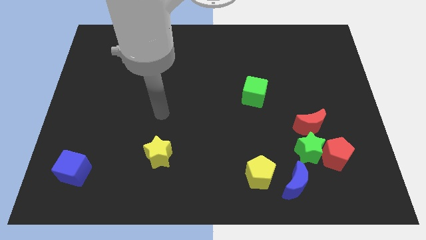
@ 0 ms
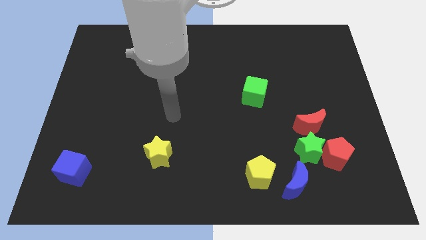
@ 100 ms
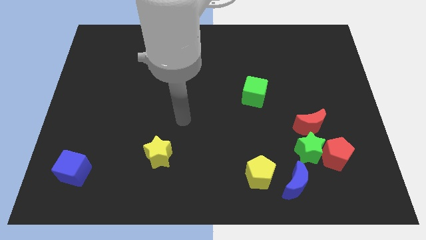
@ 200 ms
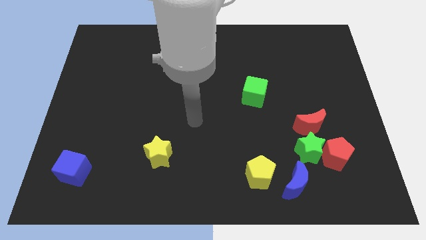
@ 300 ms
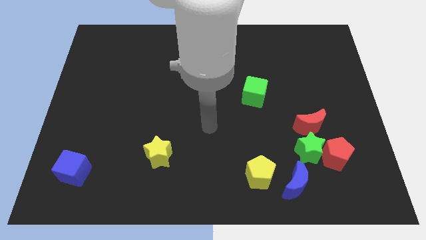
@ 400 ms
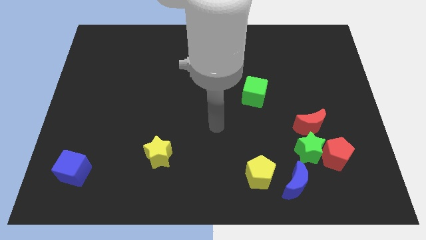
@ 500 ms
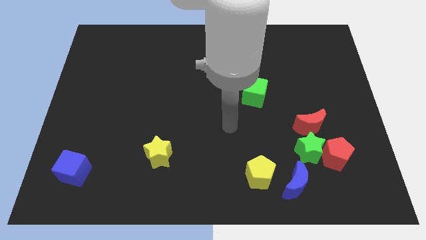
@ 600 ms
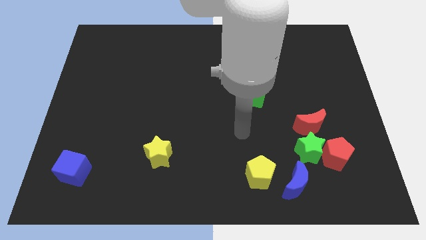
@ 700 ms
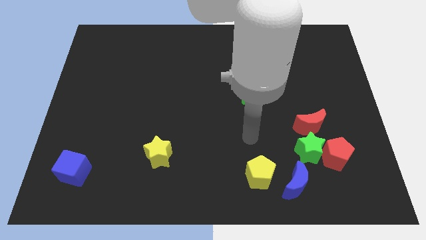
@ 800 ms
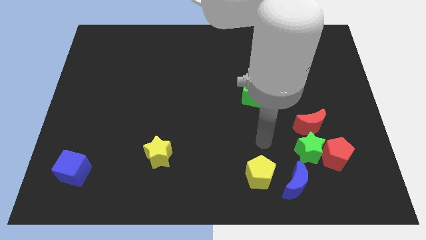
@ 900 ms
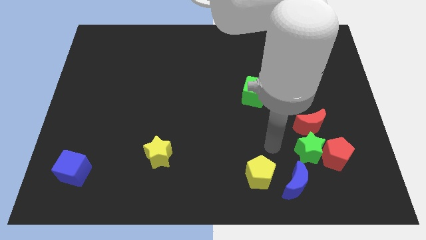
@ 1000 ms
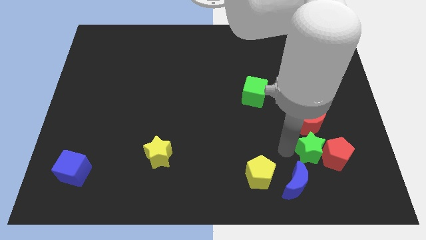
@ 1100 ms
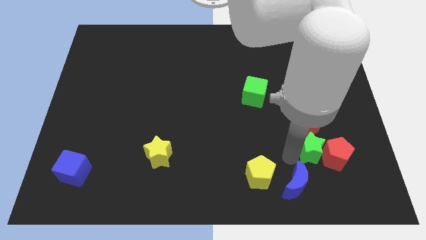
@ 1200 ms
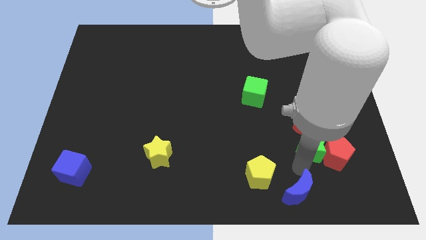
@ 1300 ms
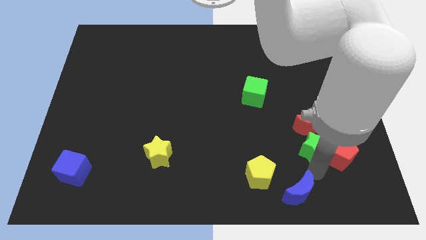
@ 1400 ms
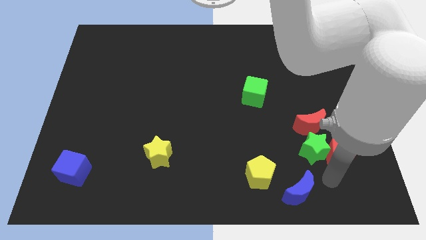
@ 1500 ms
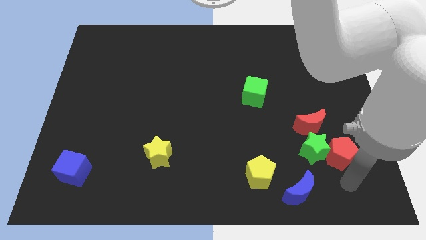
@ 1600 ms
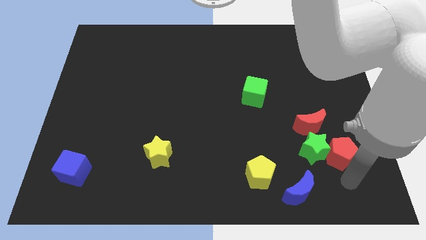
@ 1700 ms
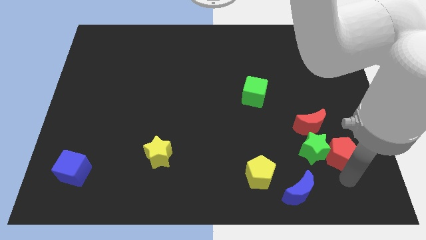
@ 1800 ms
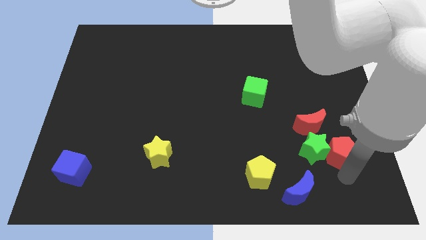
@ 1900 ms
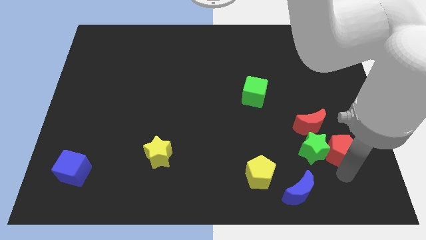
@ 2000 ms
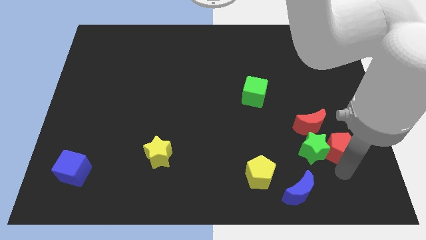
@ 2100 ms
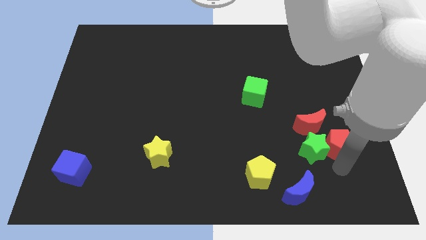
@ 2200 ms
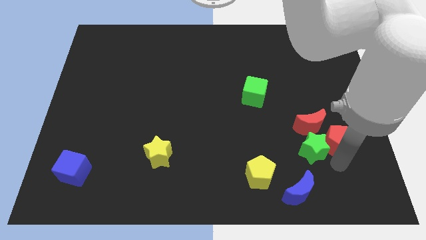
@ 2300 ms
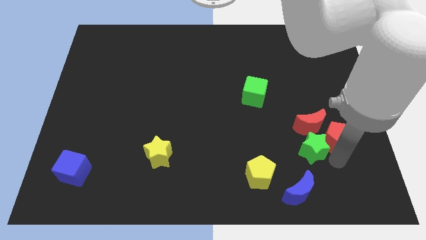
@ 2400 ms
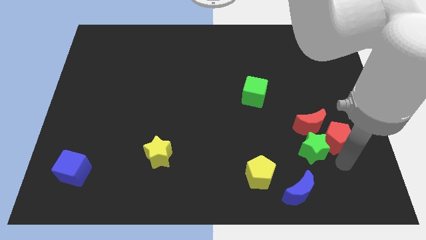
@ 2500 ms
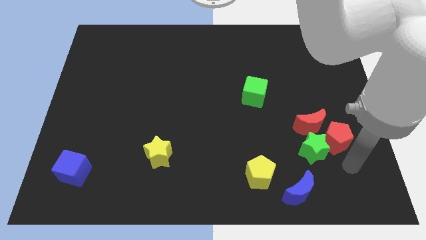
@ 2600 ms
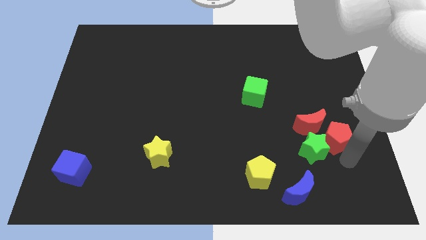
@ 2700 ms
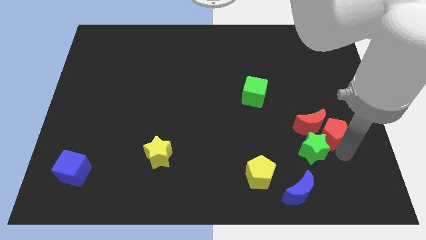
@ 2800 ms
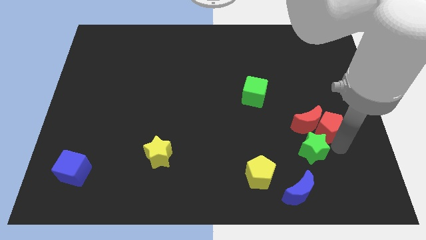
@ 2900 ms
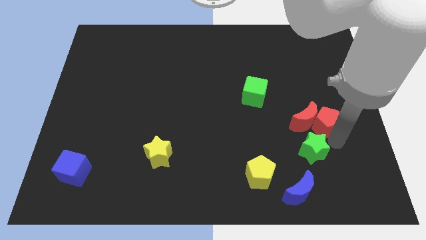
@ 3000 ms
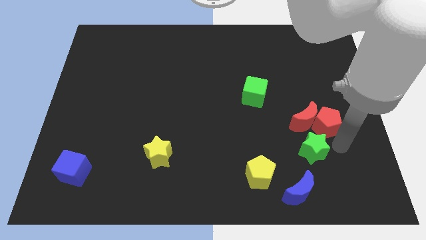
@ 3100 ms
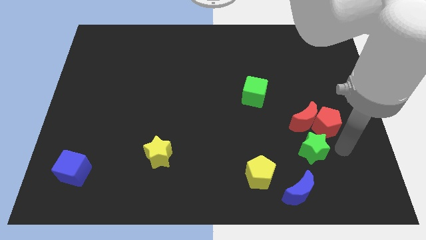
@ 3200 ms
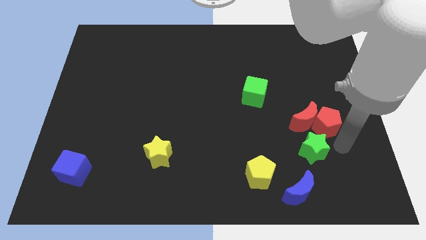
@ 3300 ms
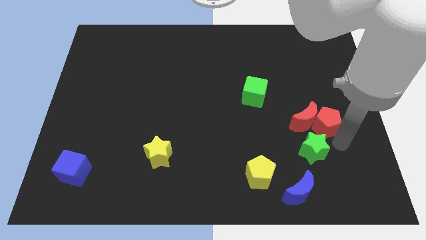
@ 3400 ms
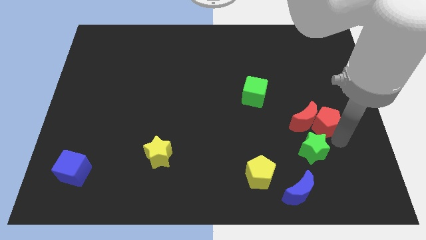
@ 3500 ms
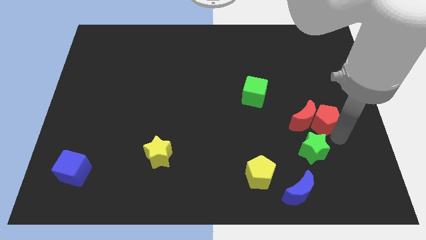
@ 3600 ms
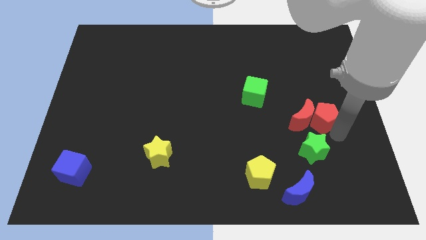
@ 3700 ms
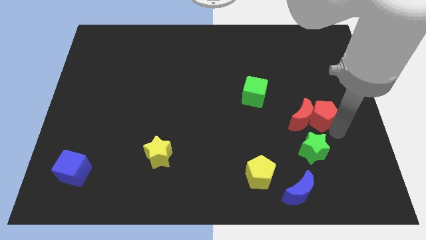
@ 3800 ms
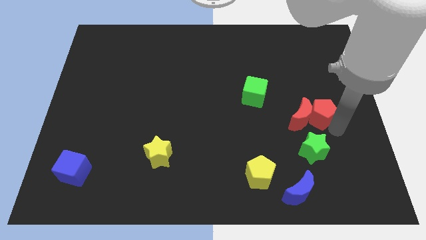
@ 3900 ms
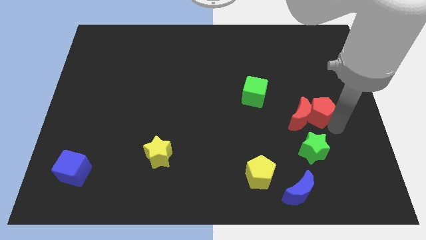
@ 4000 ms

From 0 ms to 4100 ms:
move the red pentagon slightly upwards and to the left diagonally

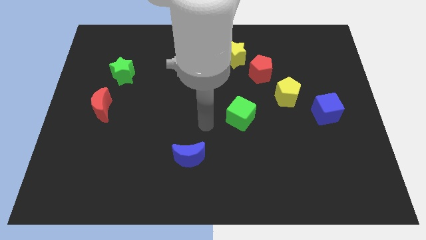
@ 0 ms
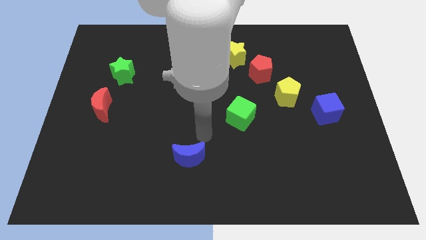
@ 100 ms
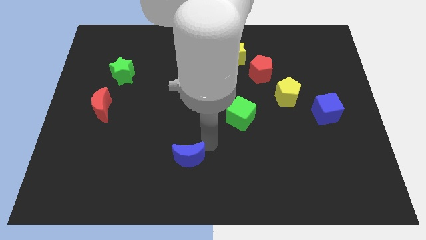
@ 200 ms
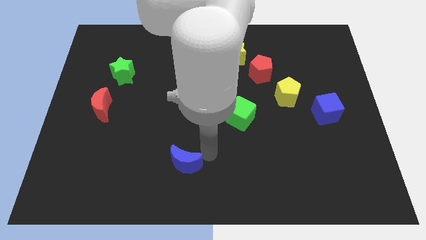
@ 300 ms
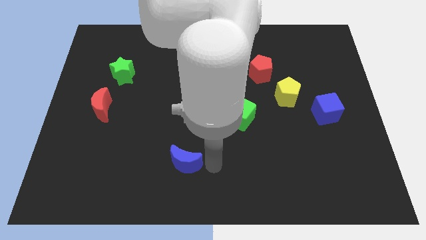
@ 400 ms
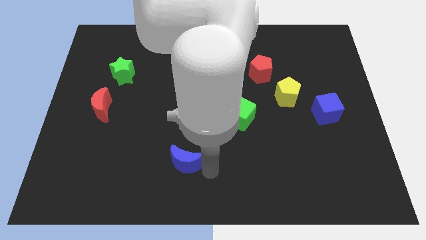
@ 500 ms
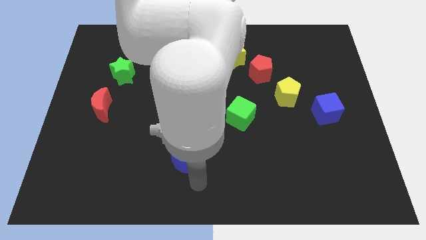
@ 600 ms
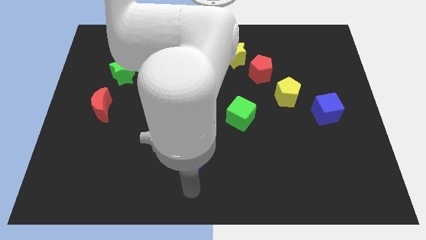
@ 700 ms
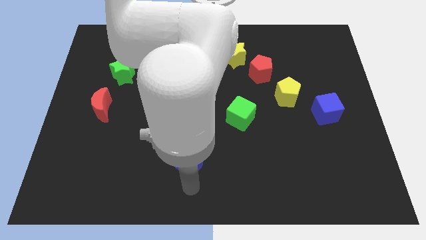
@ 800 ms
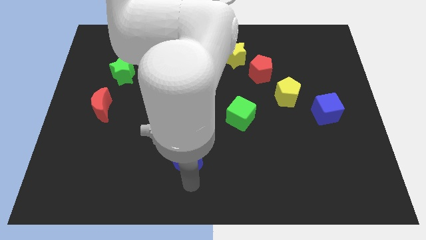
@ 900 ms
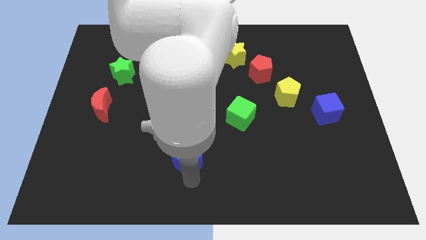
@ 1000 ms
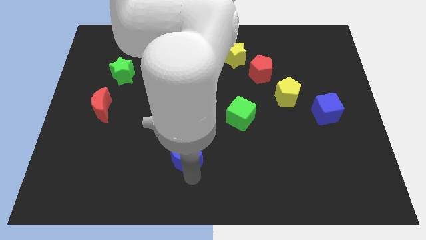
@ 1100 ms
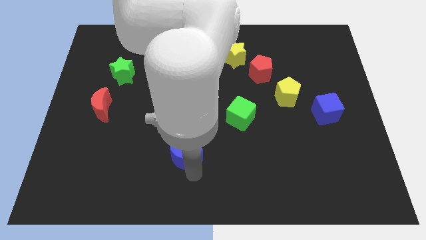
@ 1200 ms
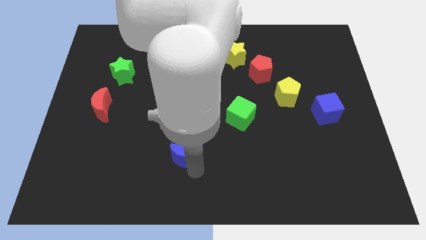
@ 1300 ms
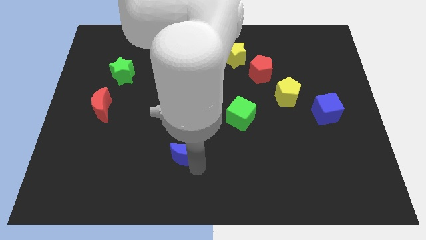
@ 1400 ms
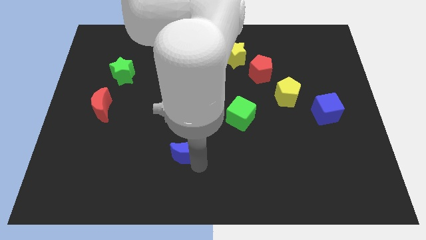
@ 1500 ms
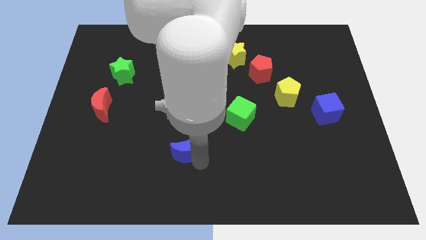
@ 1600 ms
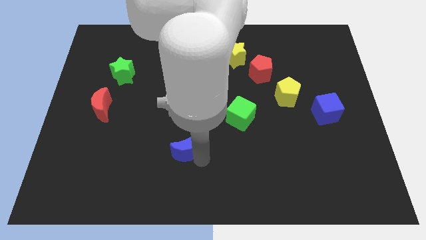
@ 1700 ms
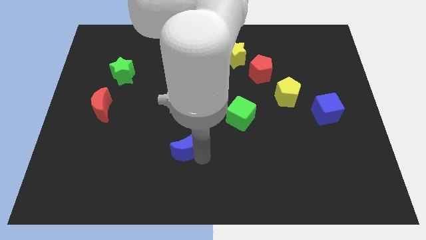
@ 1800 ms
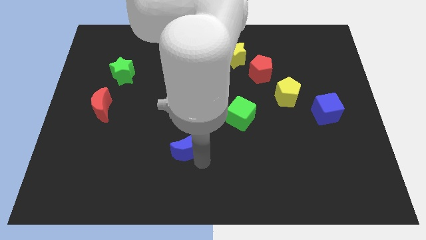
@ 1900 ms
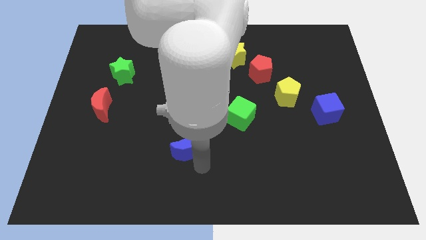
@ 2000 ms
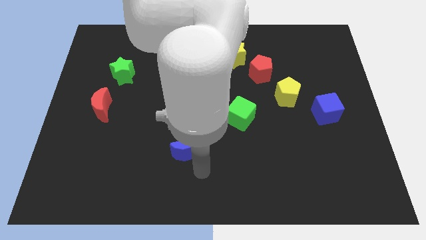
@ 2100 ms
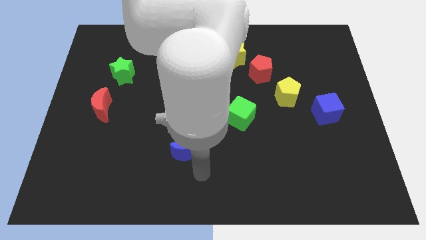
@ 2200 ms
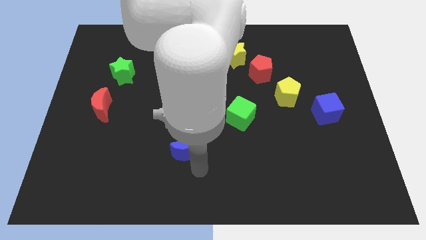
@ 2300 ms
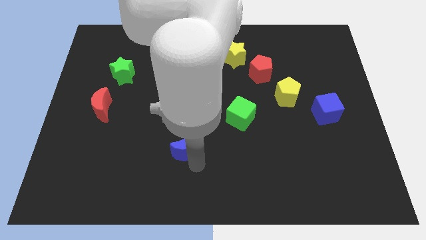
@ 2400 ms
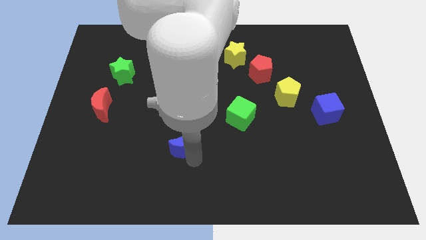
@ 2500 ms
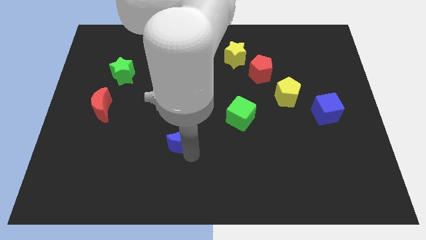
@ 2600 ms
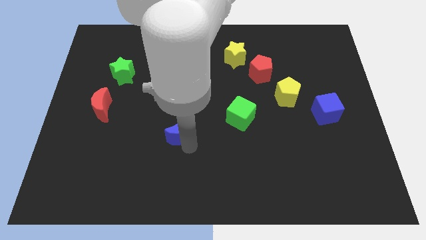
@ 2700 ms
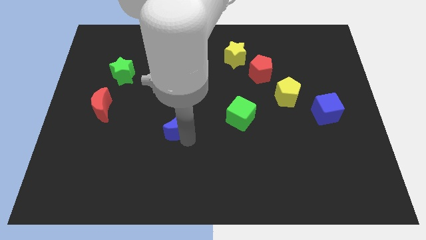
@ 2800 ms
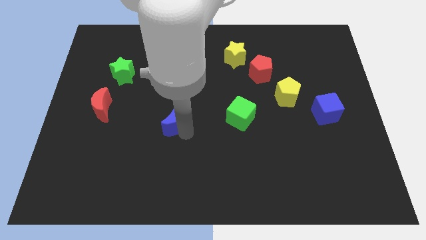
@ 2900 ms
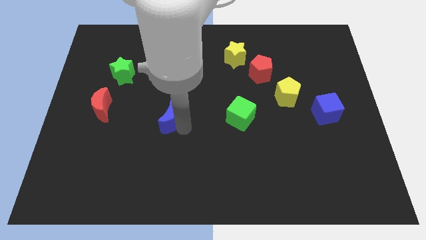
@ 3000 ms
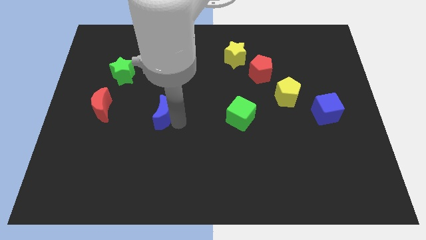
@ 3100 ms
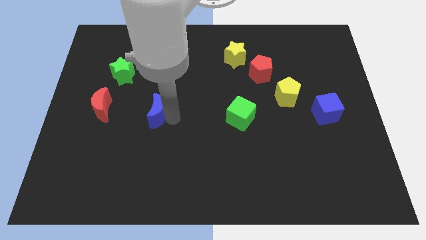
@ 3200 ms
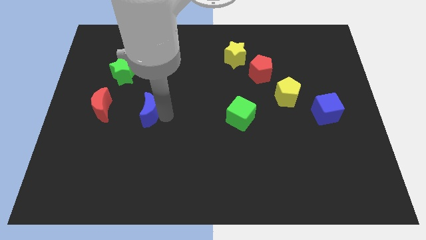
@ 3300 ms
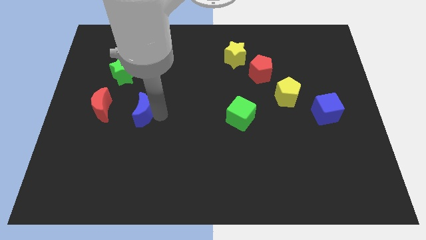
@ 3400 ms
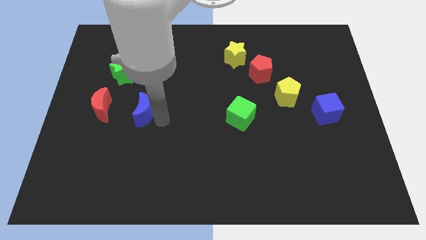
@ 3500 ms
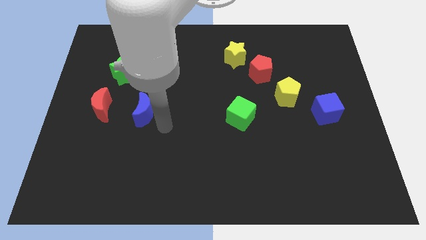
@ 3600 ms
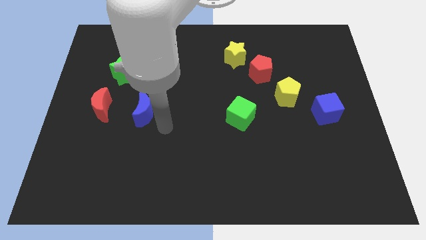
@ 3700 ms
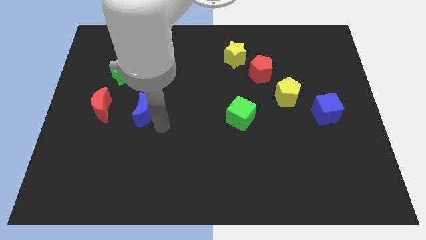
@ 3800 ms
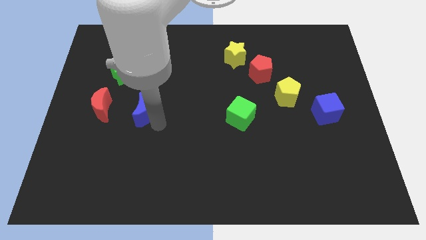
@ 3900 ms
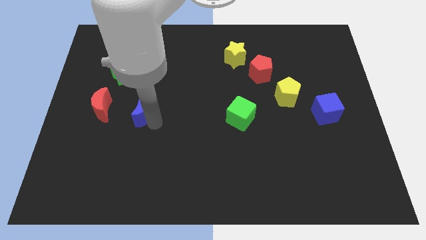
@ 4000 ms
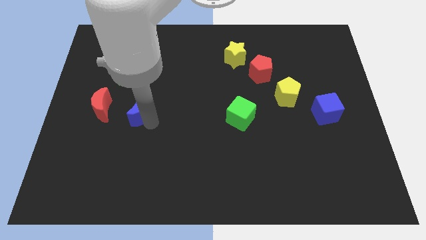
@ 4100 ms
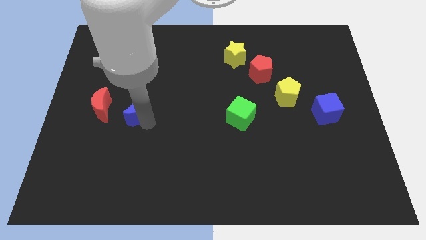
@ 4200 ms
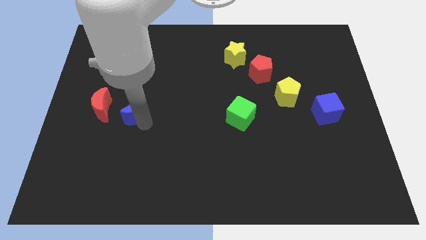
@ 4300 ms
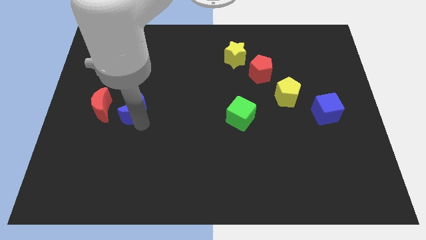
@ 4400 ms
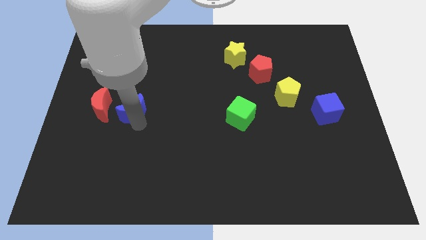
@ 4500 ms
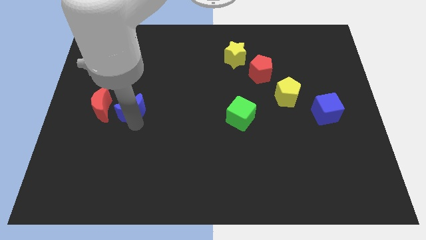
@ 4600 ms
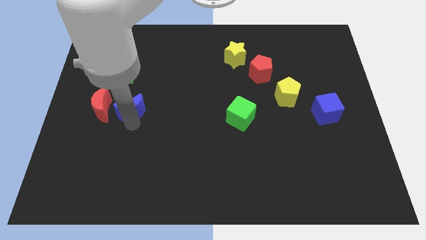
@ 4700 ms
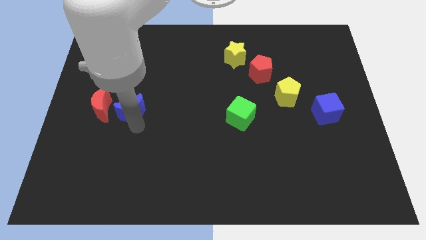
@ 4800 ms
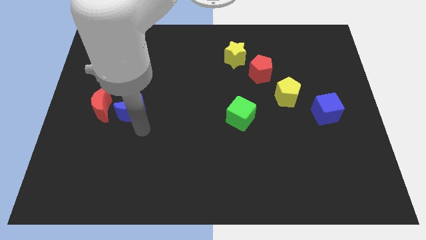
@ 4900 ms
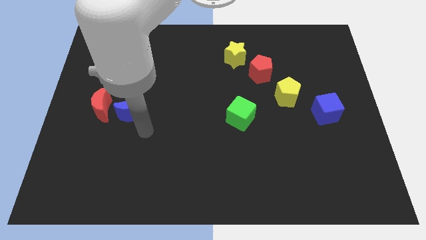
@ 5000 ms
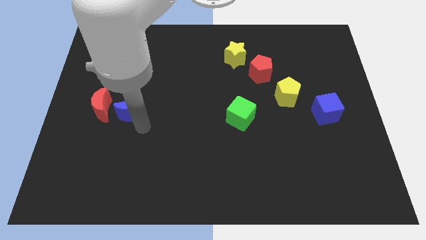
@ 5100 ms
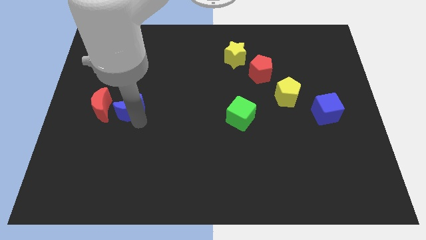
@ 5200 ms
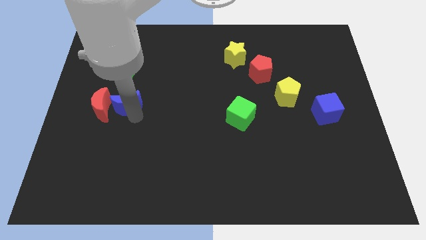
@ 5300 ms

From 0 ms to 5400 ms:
move the blue moon upwards and to the left
